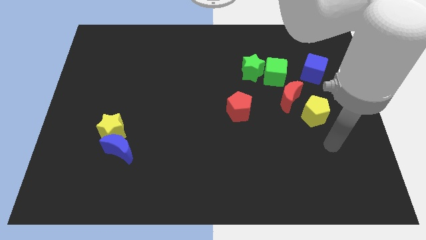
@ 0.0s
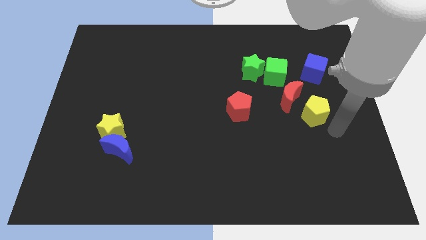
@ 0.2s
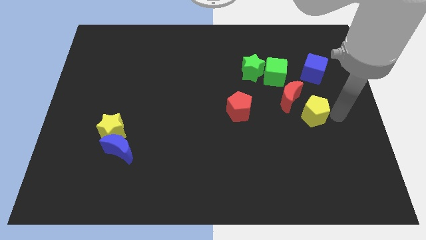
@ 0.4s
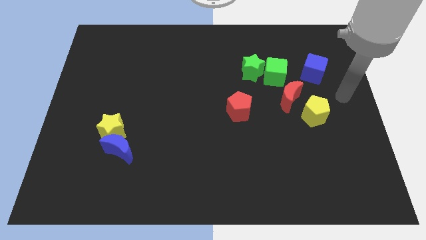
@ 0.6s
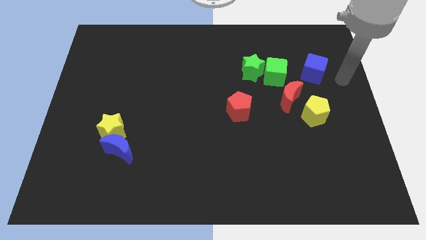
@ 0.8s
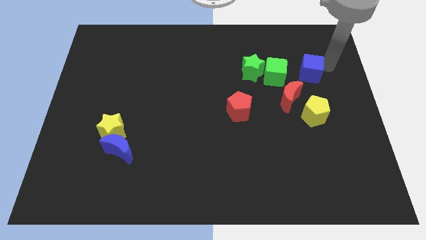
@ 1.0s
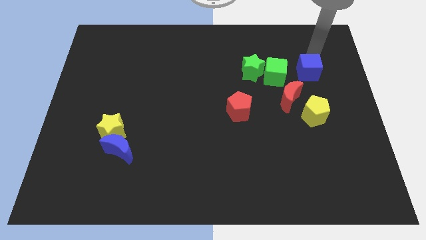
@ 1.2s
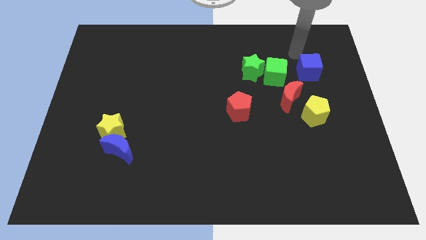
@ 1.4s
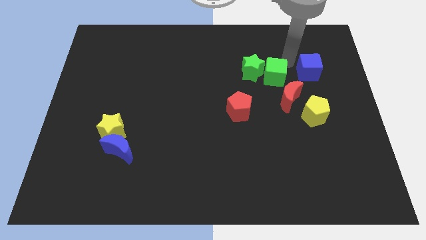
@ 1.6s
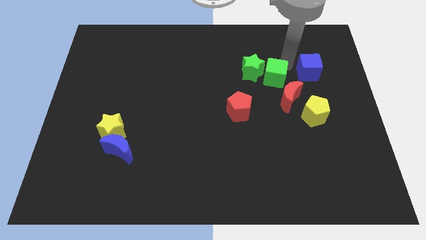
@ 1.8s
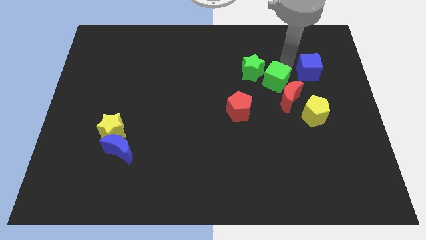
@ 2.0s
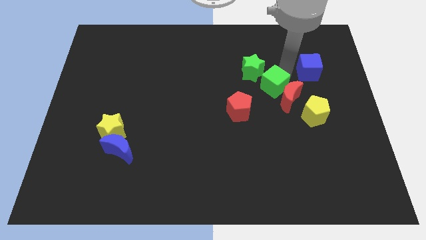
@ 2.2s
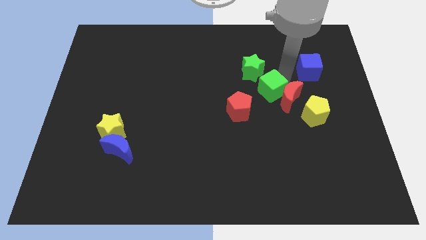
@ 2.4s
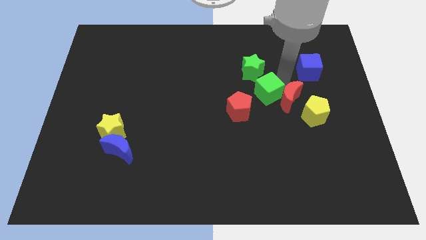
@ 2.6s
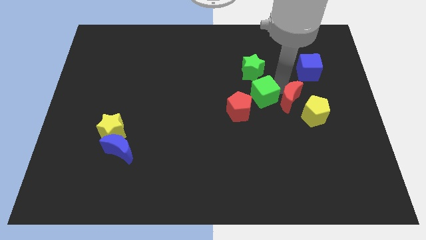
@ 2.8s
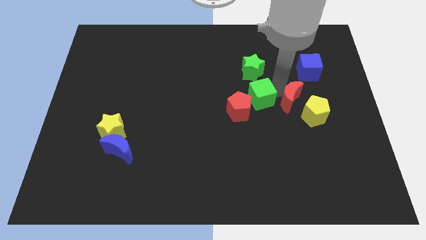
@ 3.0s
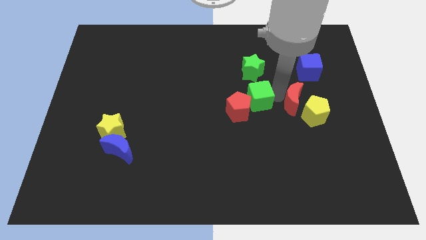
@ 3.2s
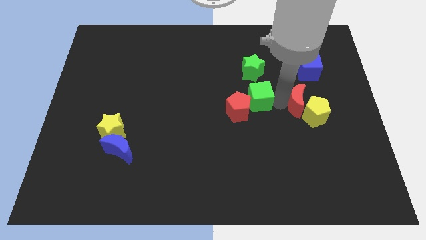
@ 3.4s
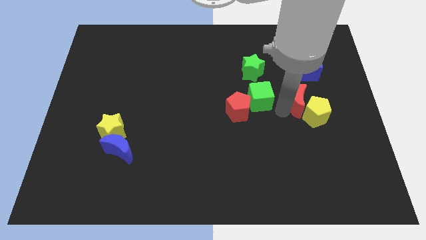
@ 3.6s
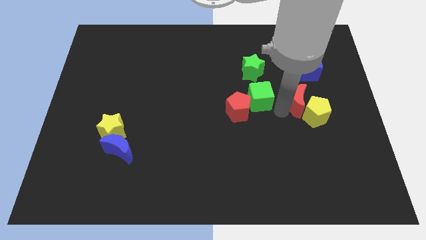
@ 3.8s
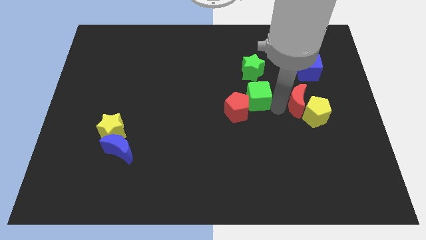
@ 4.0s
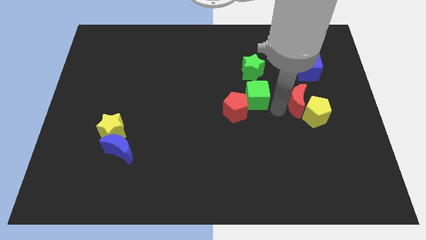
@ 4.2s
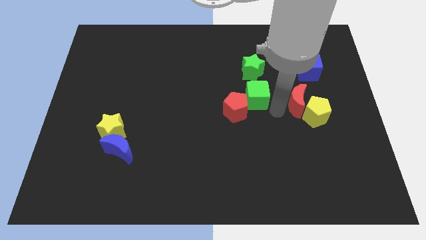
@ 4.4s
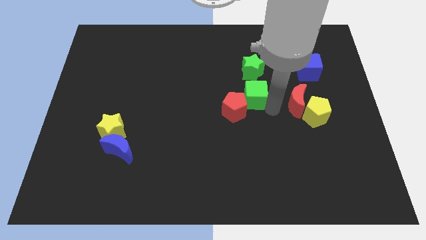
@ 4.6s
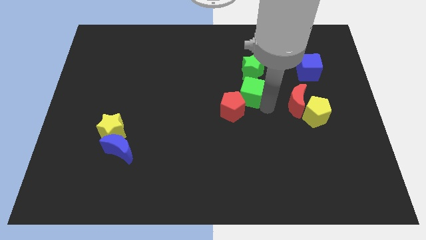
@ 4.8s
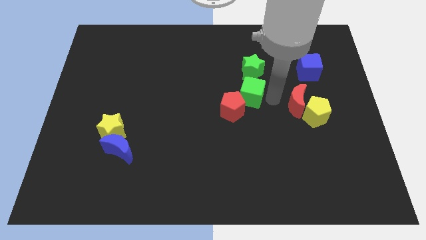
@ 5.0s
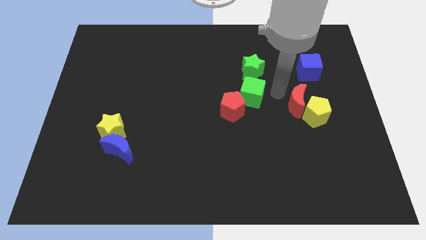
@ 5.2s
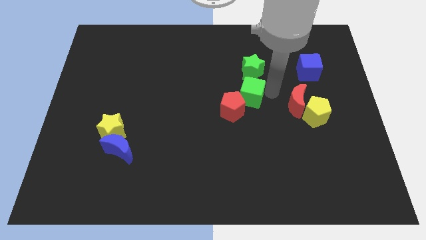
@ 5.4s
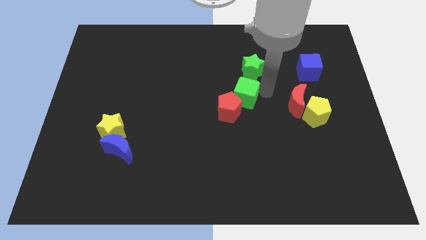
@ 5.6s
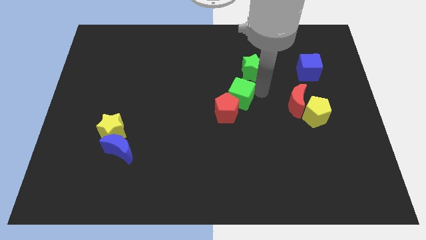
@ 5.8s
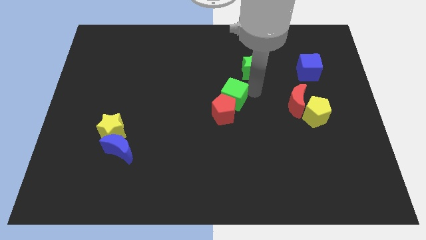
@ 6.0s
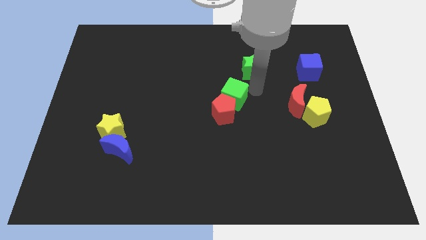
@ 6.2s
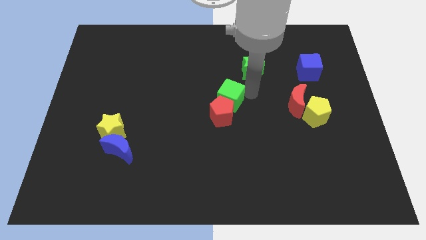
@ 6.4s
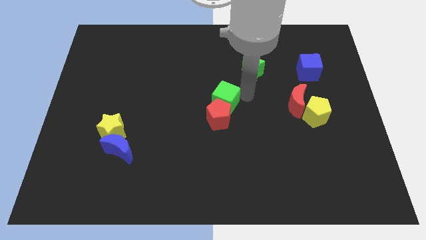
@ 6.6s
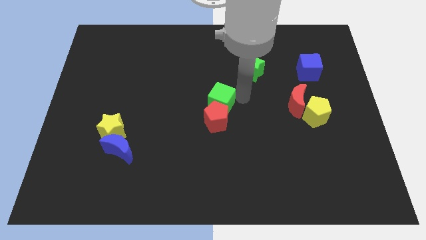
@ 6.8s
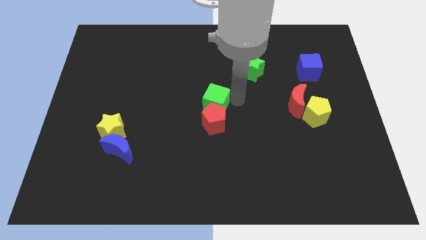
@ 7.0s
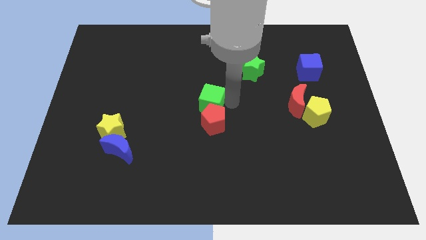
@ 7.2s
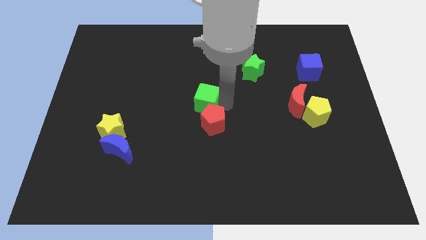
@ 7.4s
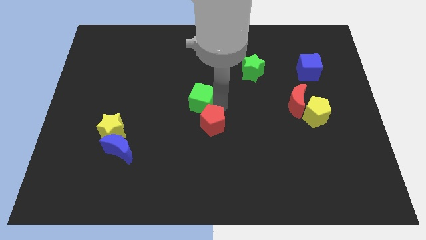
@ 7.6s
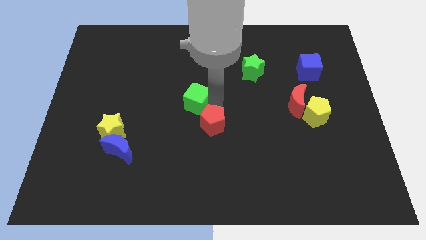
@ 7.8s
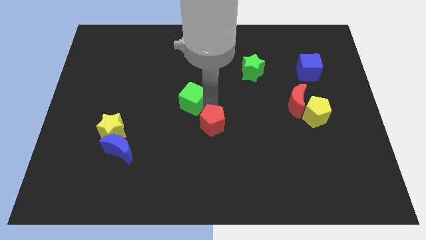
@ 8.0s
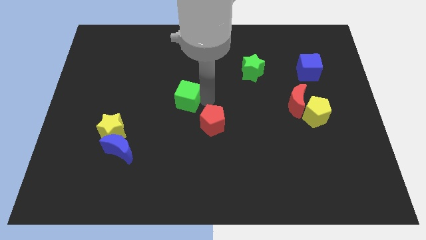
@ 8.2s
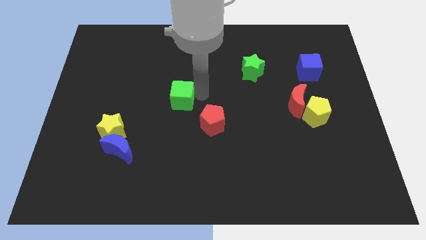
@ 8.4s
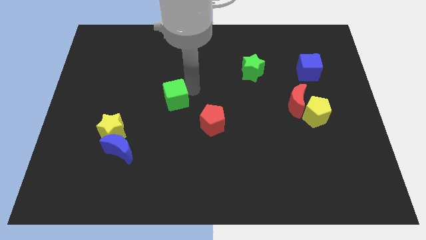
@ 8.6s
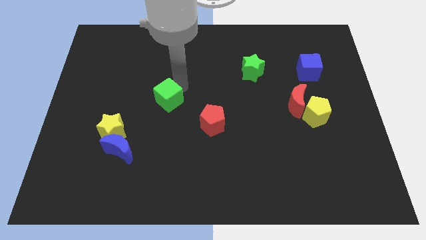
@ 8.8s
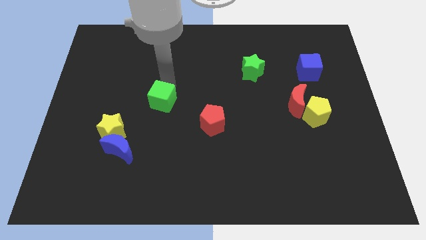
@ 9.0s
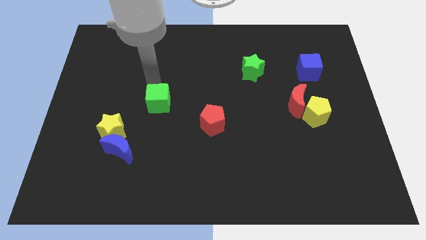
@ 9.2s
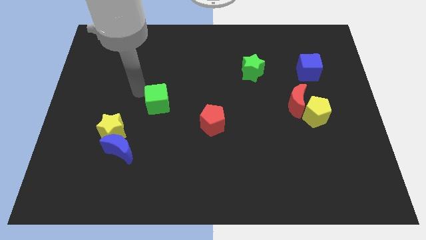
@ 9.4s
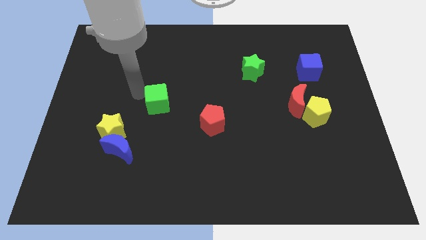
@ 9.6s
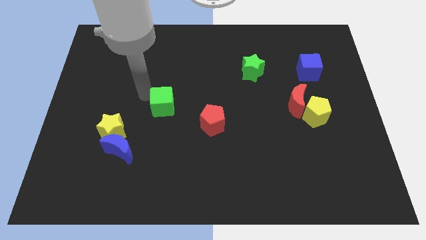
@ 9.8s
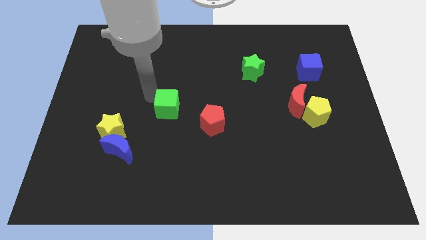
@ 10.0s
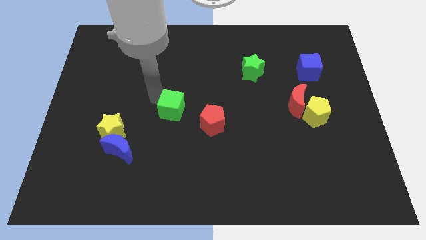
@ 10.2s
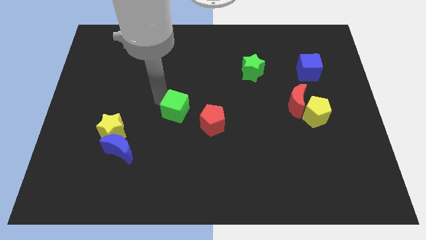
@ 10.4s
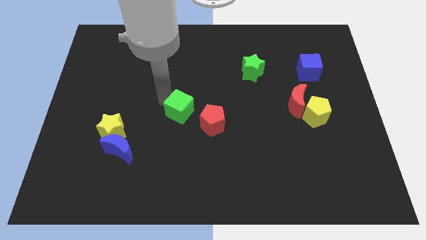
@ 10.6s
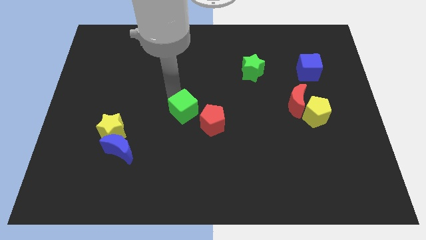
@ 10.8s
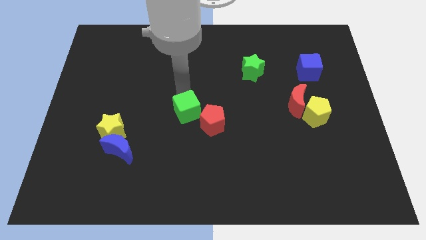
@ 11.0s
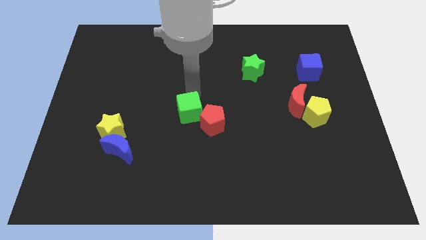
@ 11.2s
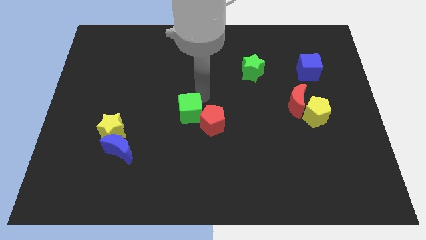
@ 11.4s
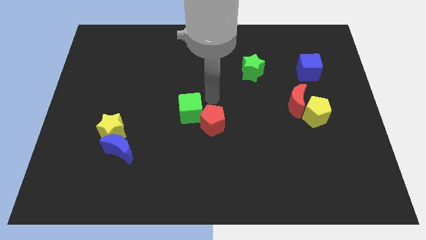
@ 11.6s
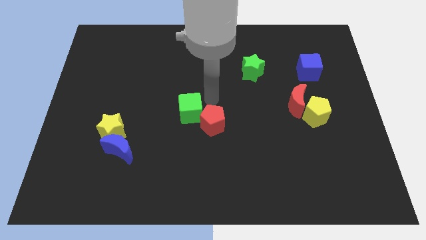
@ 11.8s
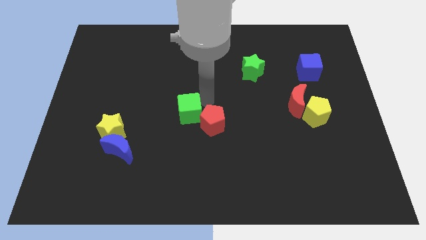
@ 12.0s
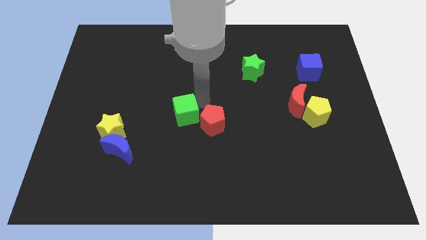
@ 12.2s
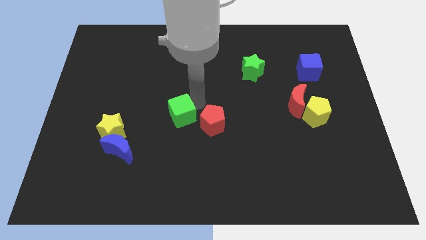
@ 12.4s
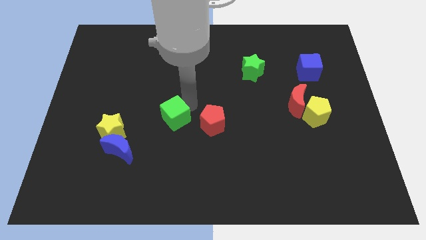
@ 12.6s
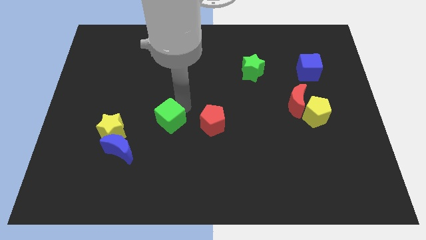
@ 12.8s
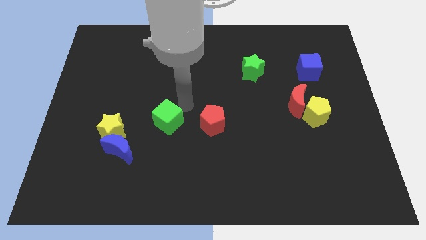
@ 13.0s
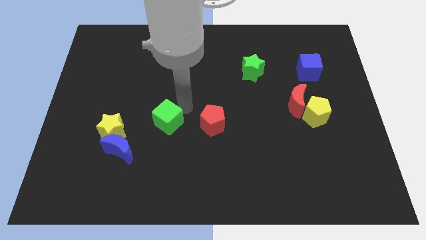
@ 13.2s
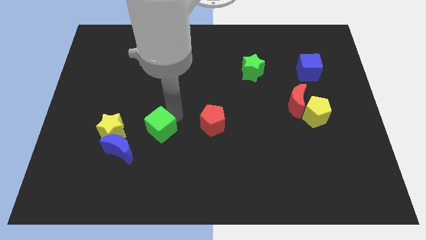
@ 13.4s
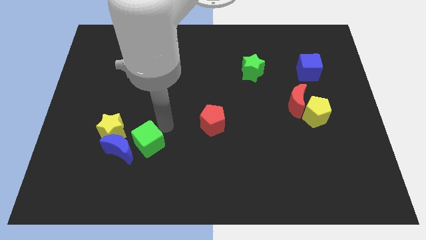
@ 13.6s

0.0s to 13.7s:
slide the green cube next to the blue moon

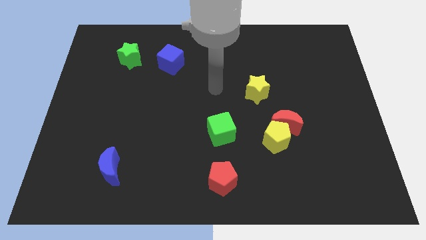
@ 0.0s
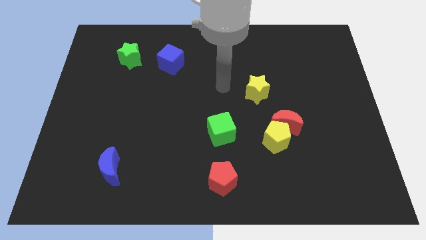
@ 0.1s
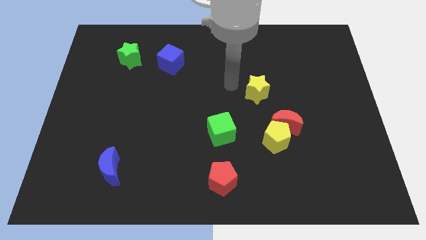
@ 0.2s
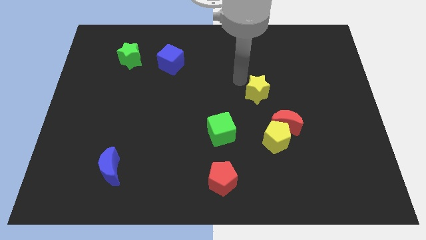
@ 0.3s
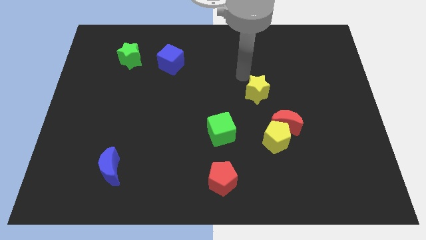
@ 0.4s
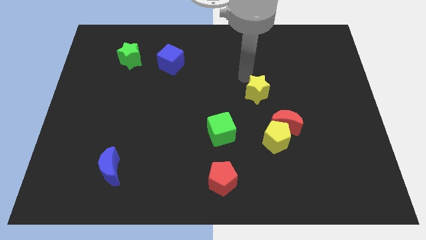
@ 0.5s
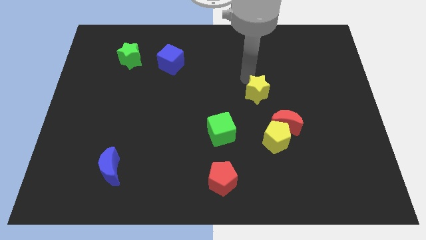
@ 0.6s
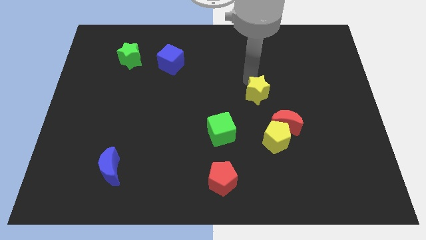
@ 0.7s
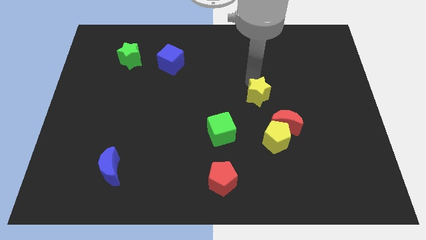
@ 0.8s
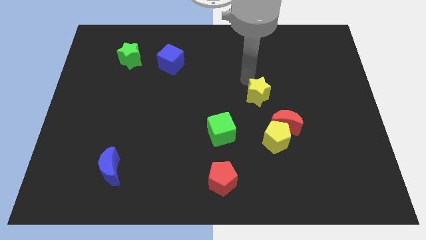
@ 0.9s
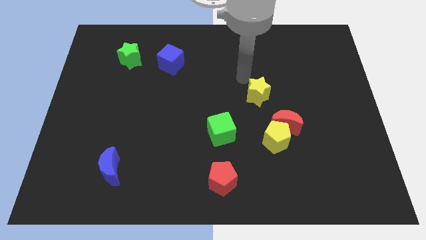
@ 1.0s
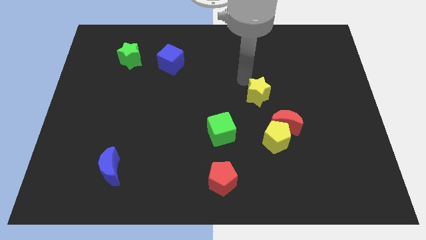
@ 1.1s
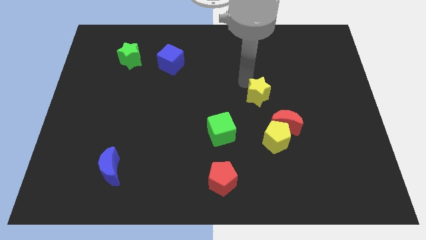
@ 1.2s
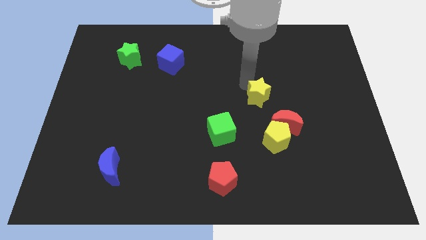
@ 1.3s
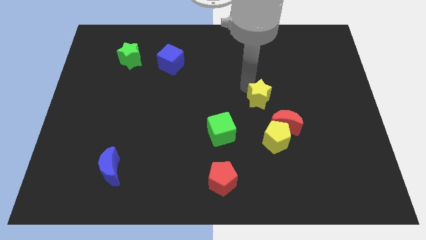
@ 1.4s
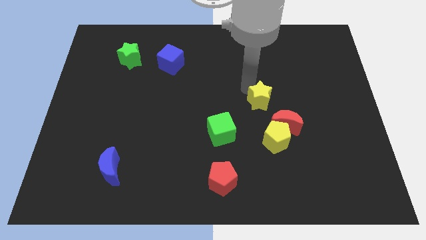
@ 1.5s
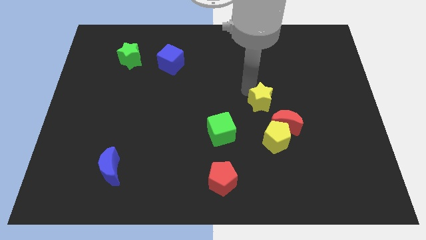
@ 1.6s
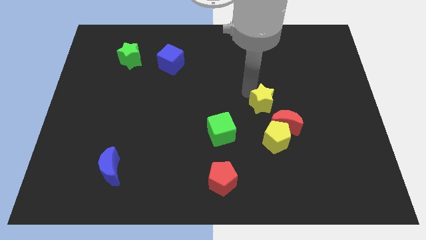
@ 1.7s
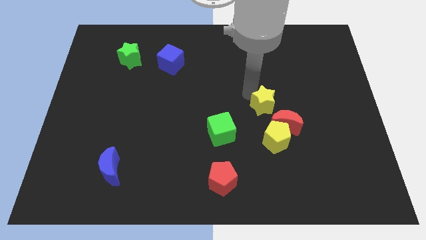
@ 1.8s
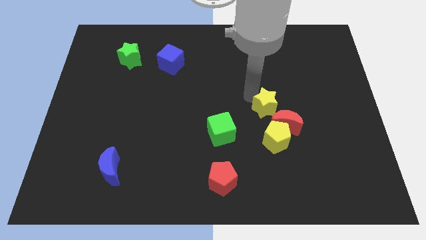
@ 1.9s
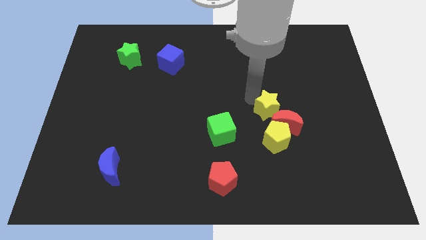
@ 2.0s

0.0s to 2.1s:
push the yellow star next to the red moon
